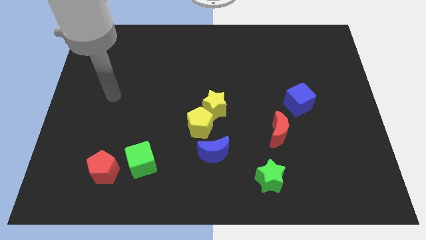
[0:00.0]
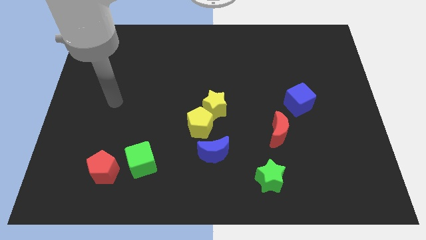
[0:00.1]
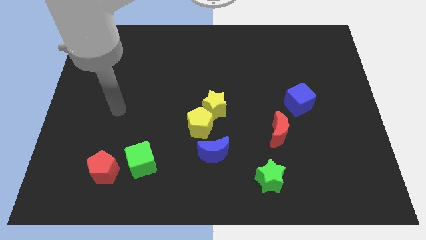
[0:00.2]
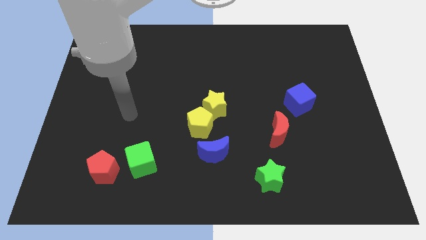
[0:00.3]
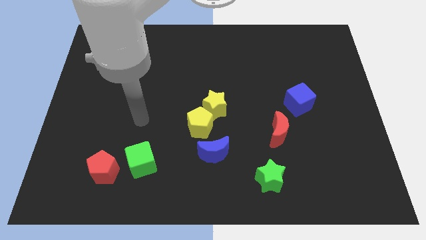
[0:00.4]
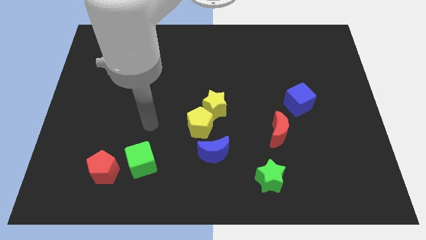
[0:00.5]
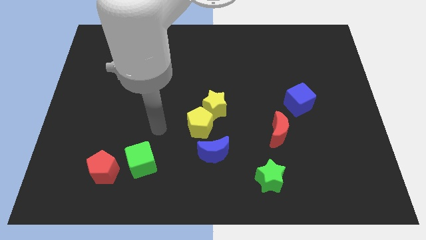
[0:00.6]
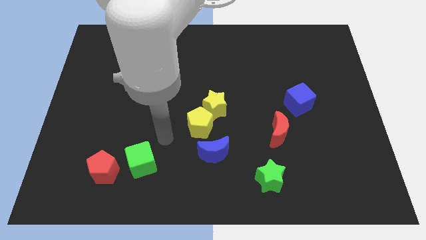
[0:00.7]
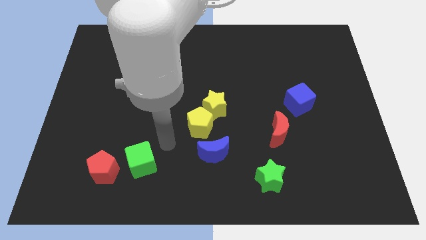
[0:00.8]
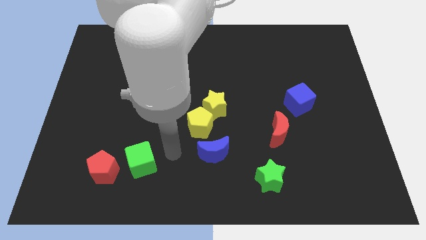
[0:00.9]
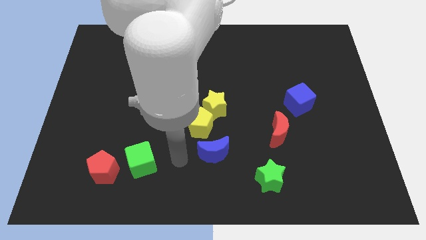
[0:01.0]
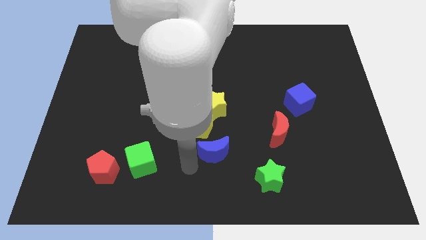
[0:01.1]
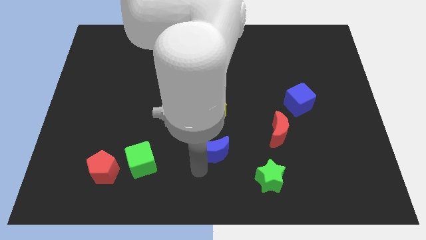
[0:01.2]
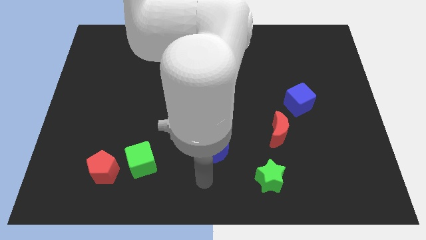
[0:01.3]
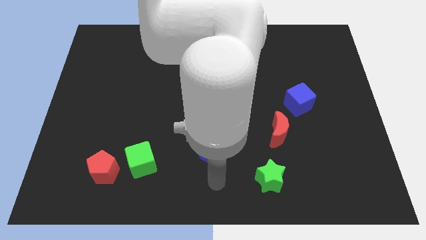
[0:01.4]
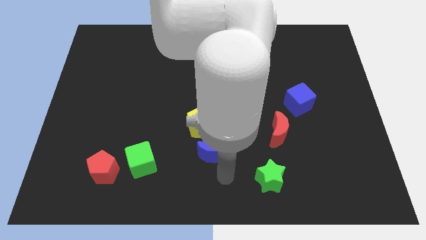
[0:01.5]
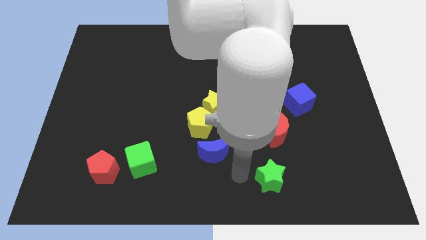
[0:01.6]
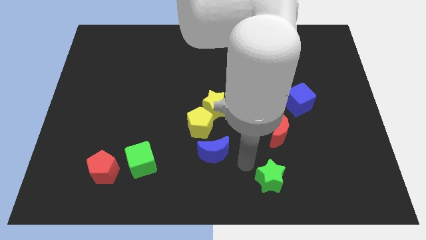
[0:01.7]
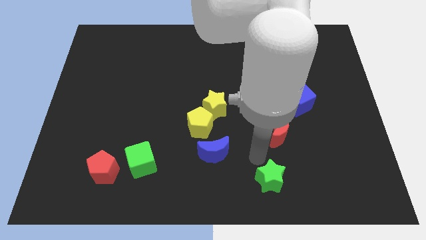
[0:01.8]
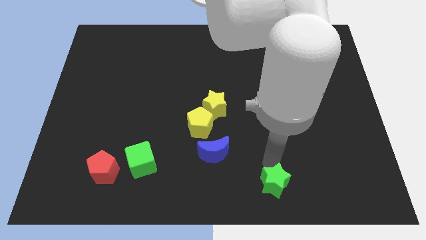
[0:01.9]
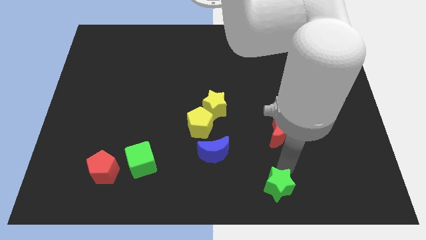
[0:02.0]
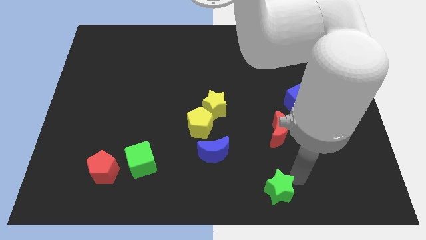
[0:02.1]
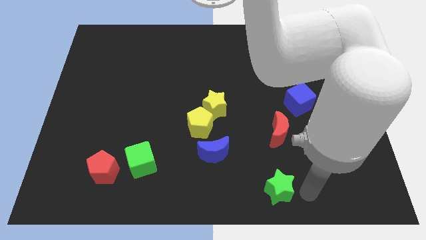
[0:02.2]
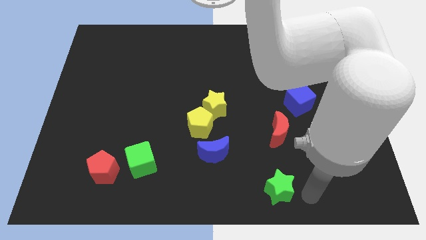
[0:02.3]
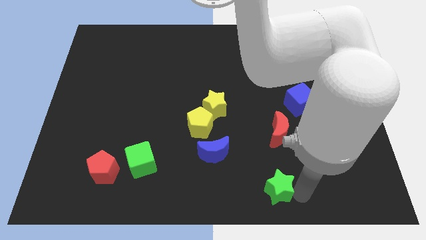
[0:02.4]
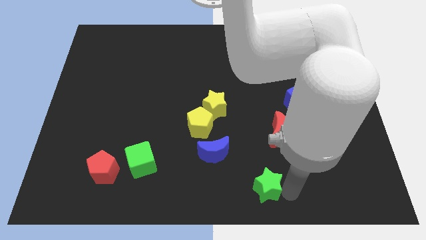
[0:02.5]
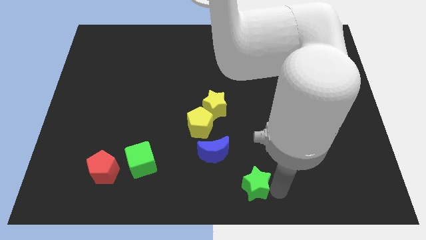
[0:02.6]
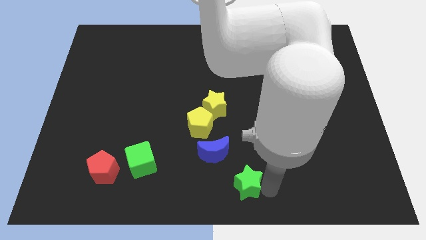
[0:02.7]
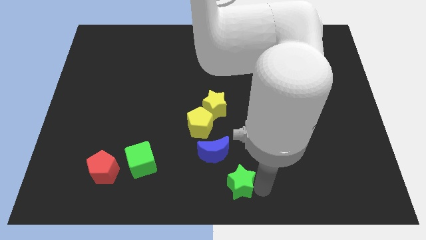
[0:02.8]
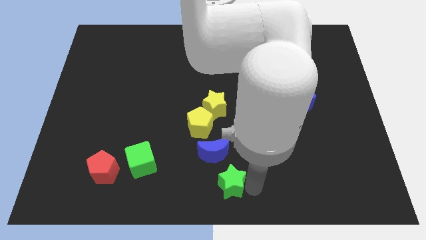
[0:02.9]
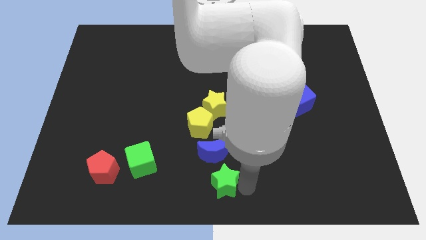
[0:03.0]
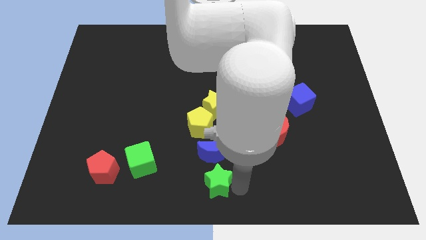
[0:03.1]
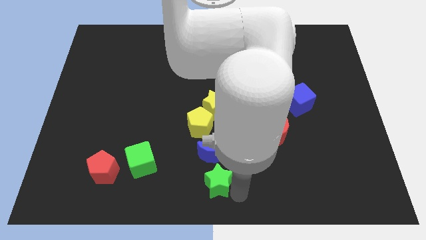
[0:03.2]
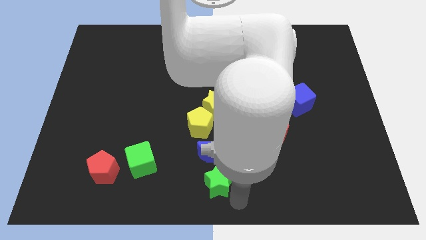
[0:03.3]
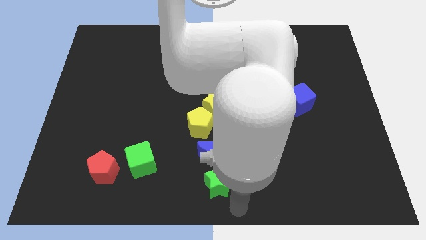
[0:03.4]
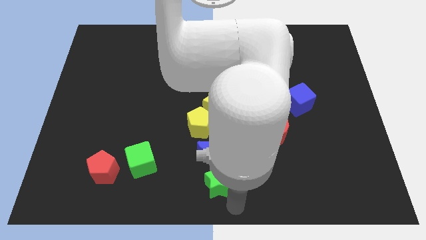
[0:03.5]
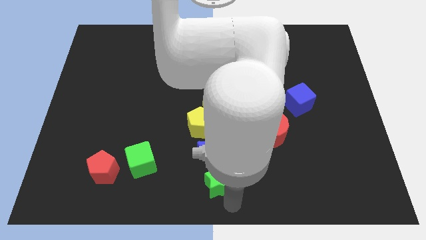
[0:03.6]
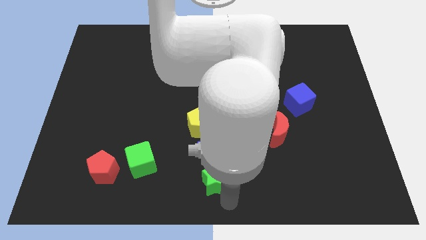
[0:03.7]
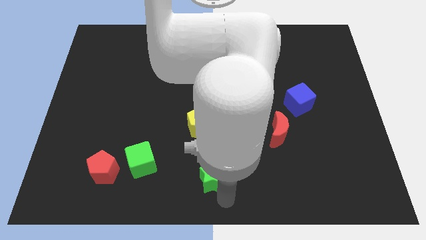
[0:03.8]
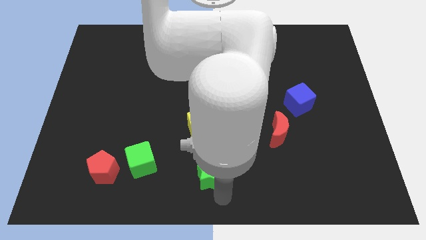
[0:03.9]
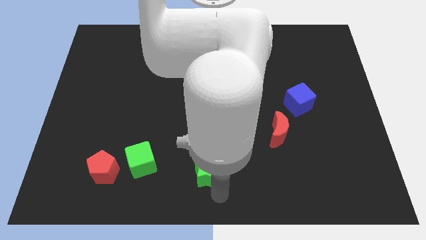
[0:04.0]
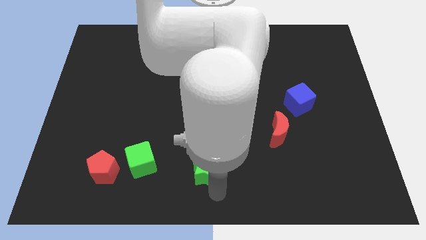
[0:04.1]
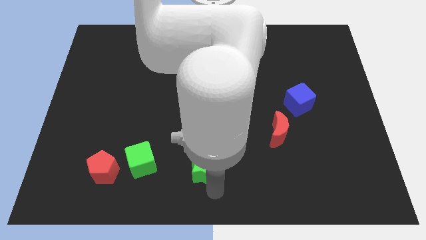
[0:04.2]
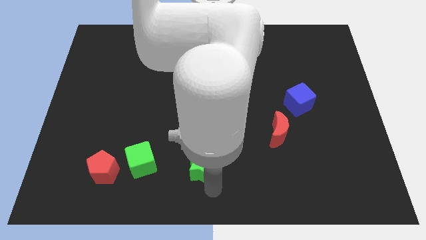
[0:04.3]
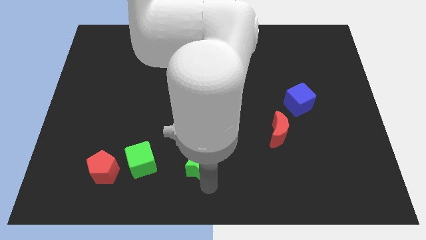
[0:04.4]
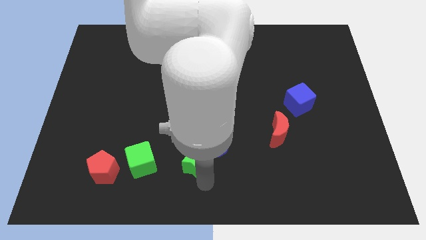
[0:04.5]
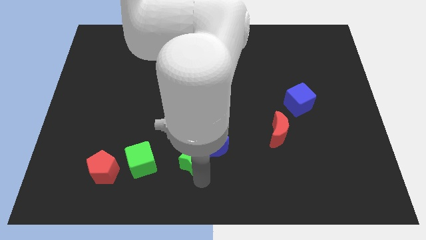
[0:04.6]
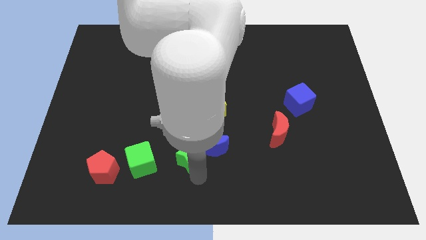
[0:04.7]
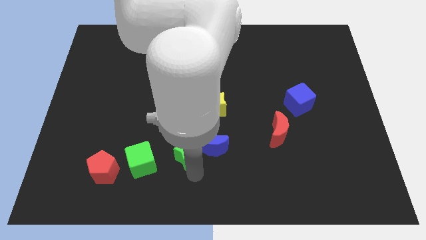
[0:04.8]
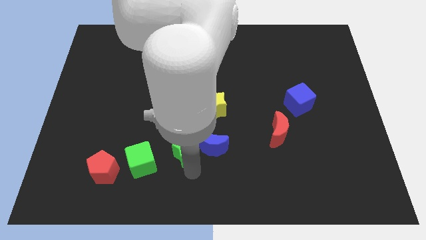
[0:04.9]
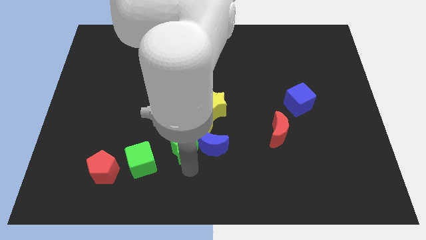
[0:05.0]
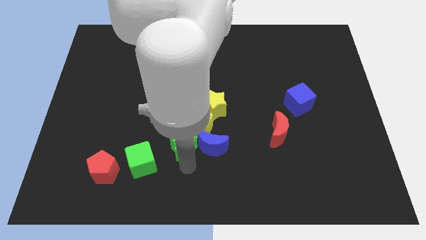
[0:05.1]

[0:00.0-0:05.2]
move the green star diagonally down and to the left of the yellow star

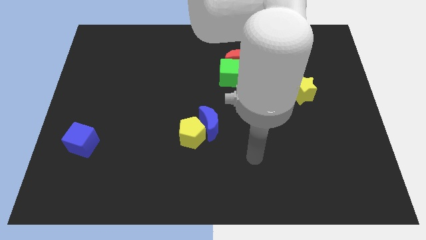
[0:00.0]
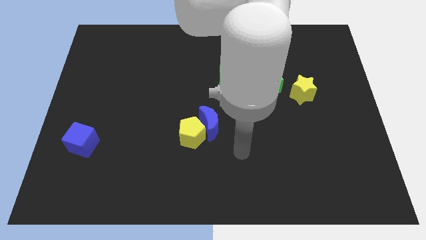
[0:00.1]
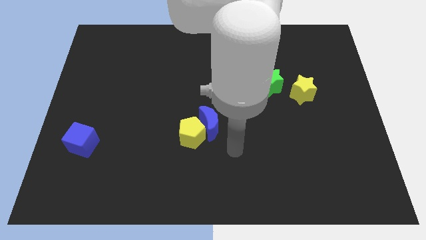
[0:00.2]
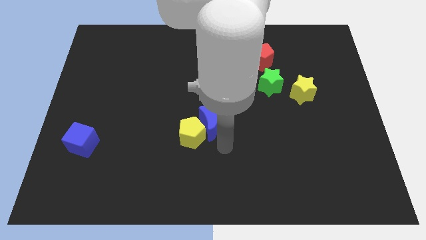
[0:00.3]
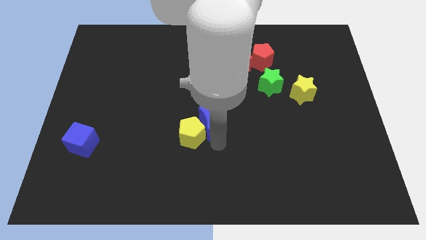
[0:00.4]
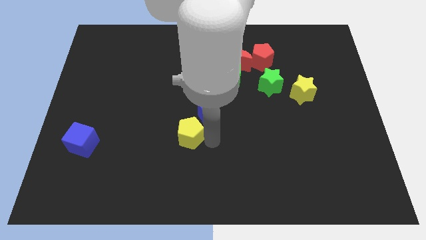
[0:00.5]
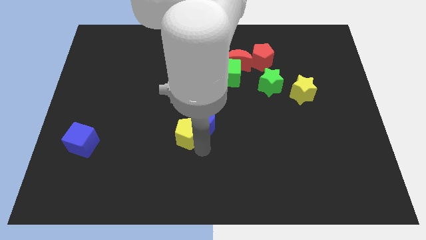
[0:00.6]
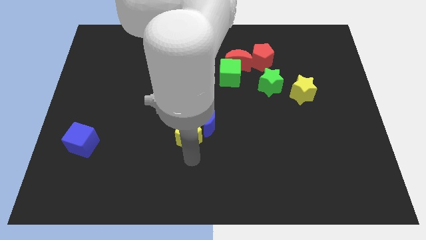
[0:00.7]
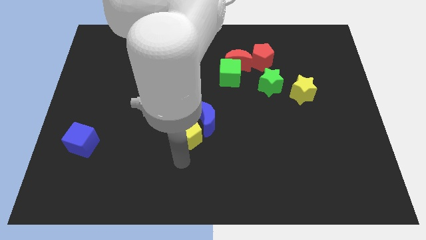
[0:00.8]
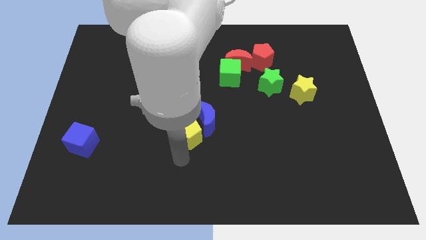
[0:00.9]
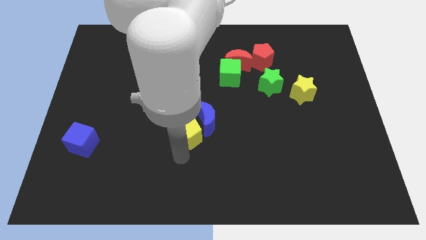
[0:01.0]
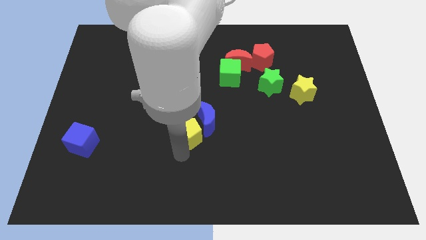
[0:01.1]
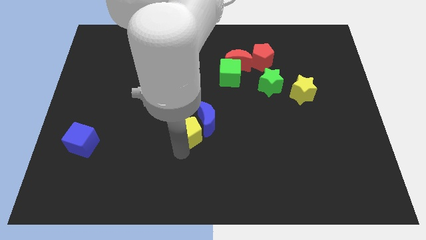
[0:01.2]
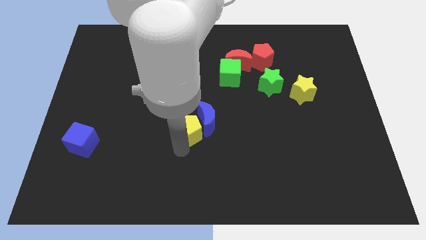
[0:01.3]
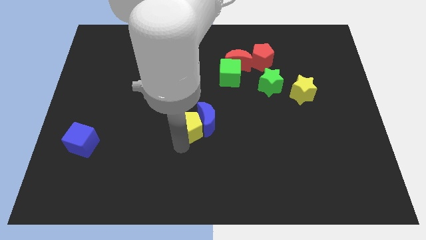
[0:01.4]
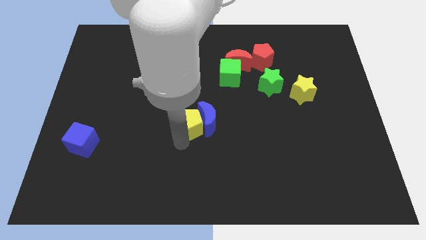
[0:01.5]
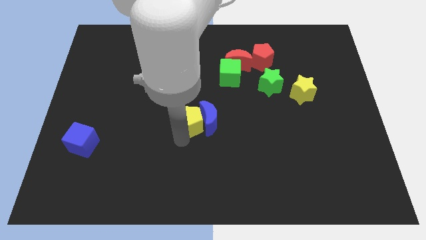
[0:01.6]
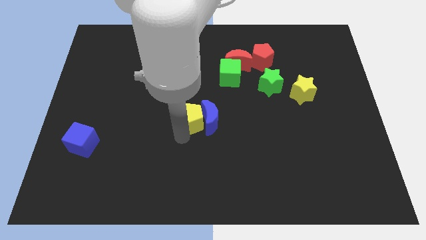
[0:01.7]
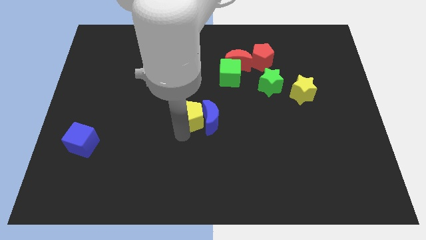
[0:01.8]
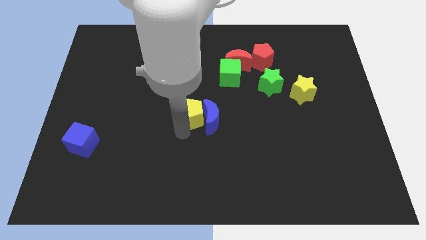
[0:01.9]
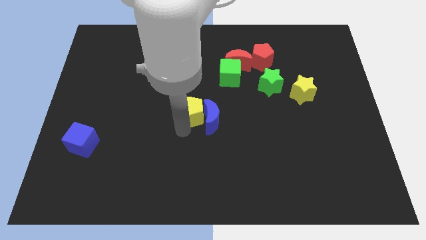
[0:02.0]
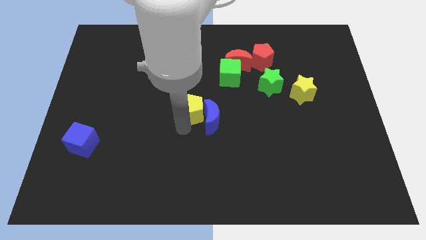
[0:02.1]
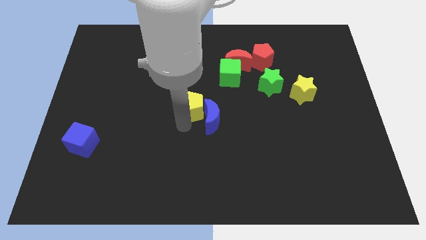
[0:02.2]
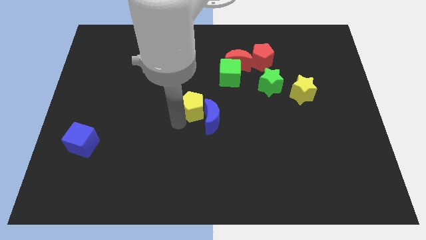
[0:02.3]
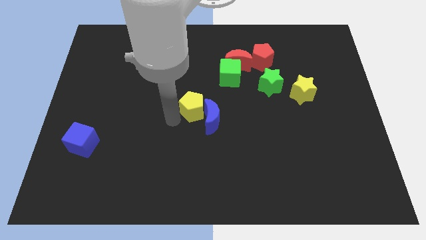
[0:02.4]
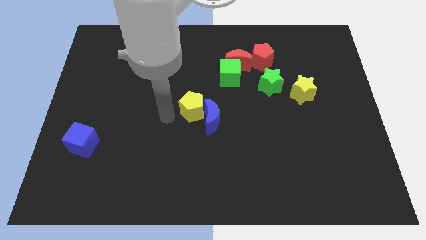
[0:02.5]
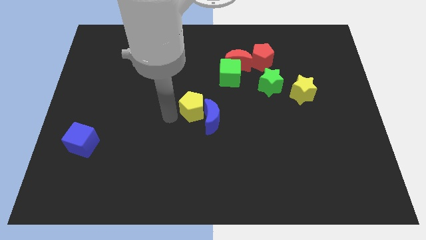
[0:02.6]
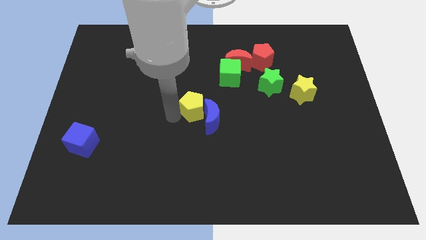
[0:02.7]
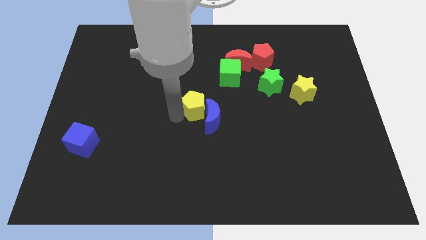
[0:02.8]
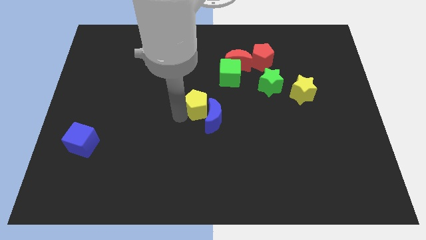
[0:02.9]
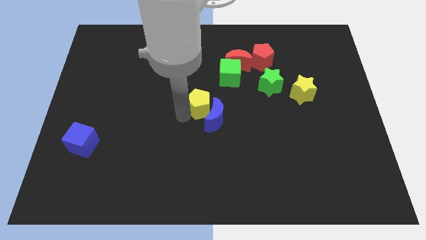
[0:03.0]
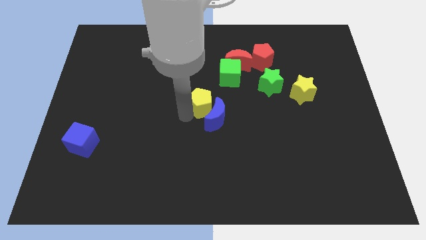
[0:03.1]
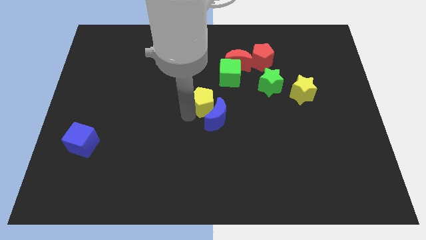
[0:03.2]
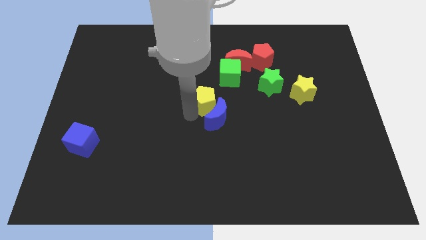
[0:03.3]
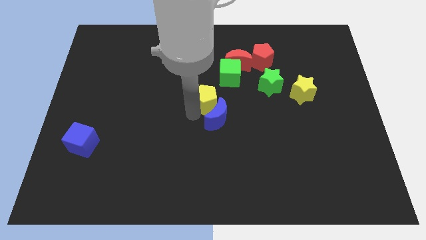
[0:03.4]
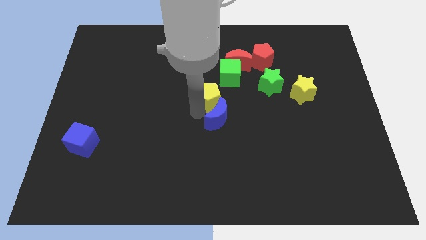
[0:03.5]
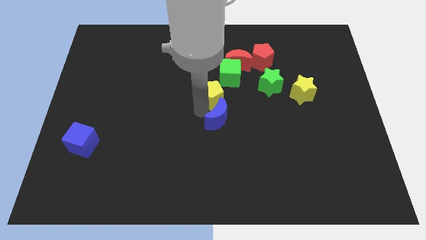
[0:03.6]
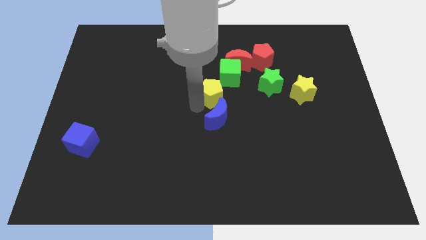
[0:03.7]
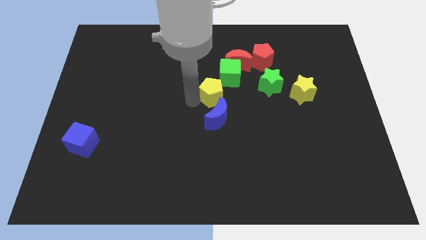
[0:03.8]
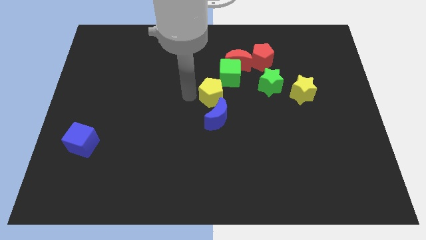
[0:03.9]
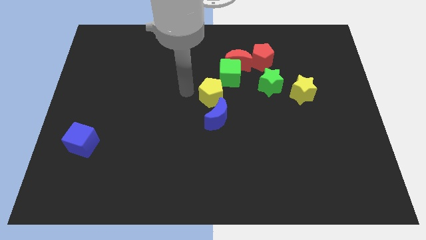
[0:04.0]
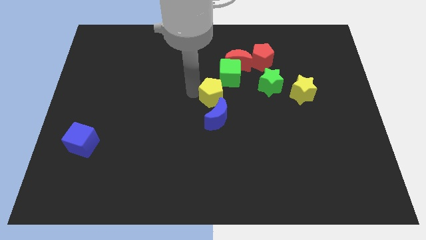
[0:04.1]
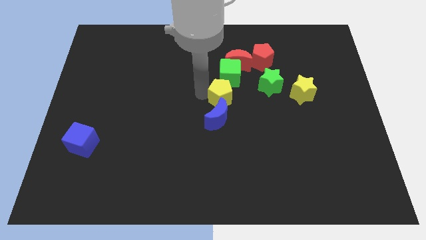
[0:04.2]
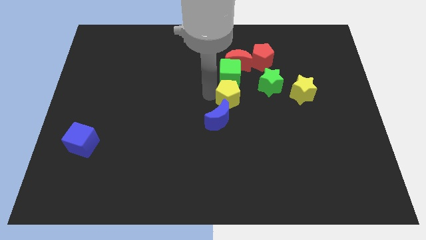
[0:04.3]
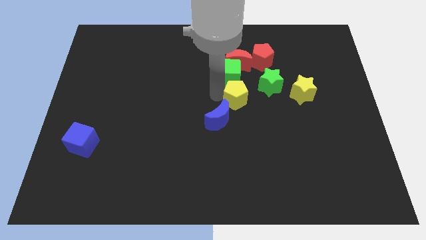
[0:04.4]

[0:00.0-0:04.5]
put the yellow pentagon to the bottom left side of the green star
